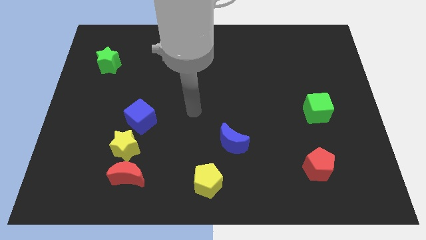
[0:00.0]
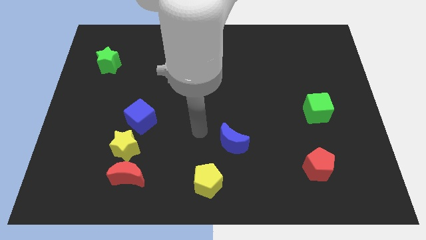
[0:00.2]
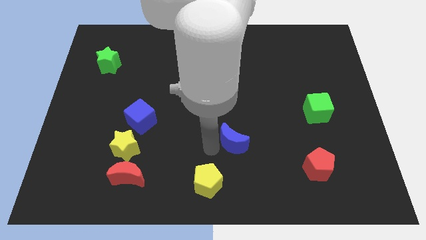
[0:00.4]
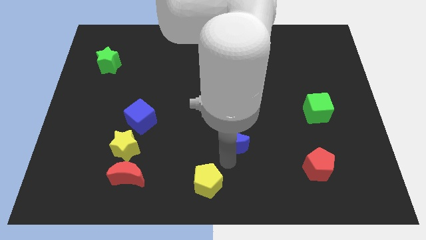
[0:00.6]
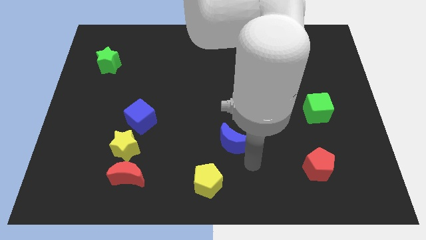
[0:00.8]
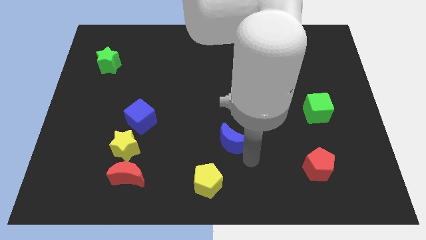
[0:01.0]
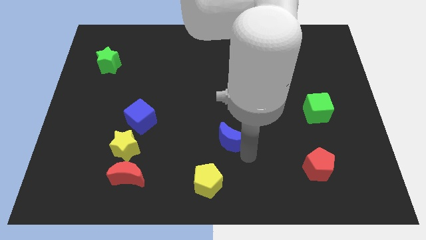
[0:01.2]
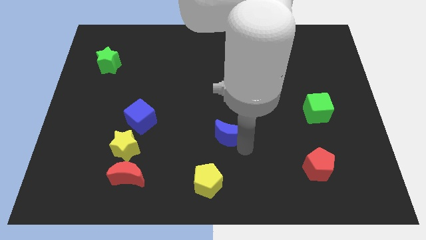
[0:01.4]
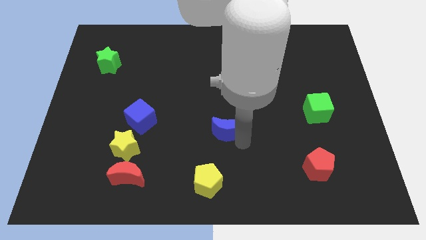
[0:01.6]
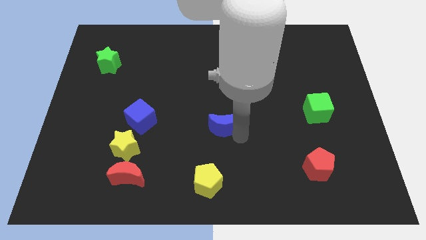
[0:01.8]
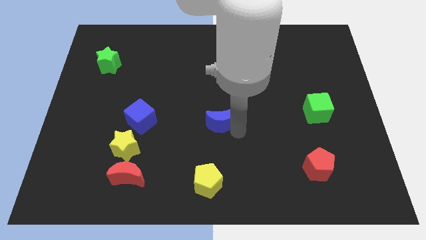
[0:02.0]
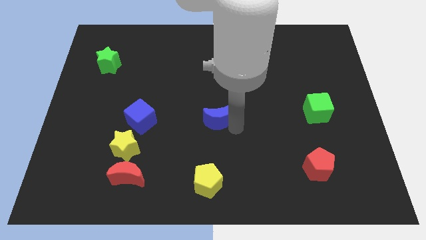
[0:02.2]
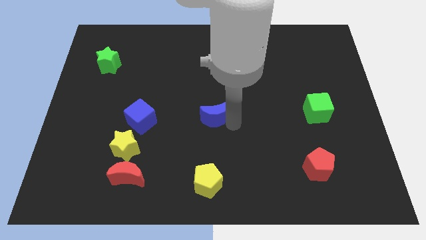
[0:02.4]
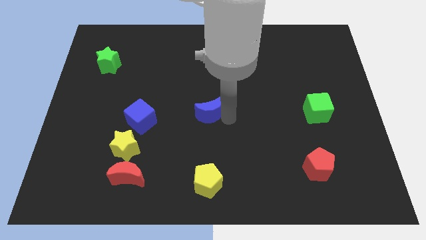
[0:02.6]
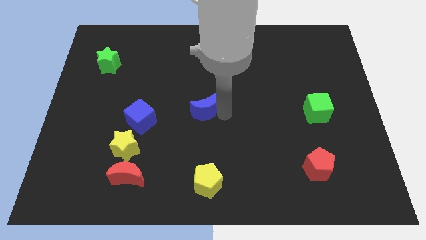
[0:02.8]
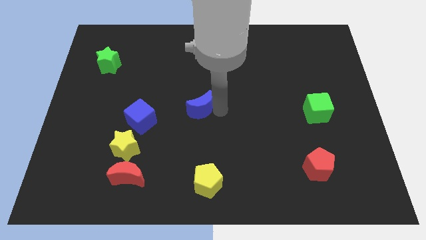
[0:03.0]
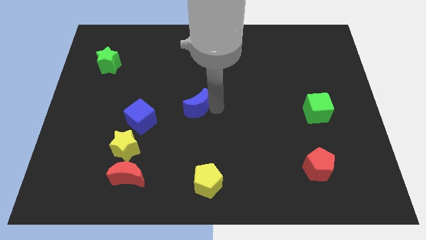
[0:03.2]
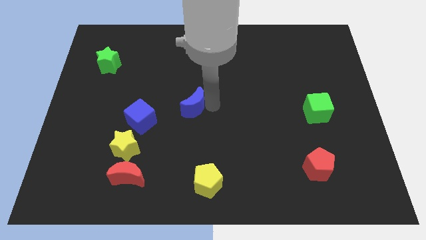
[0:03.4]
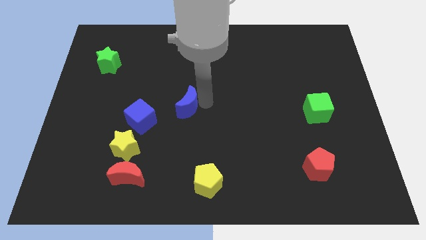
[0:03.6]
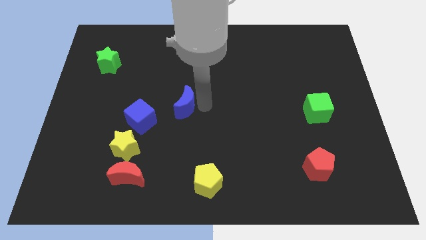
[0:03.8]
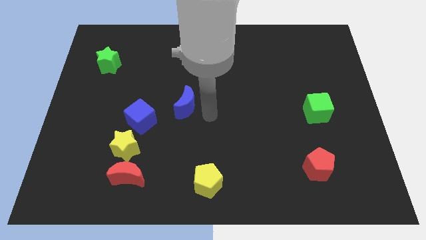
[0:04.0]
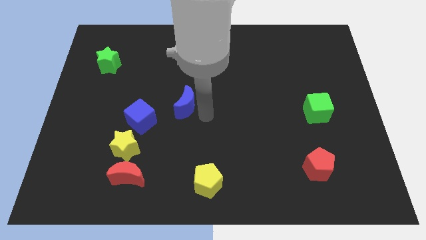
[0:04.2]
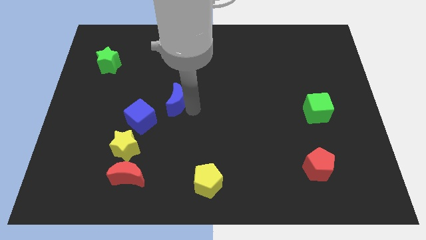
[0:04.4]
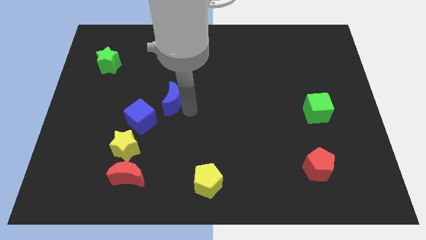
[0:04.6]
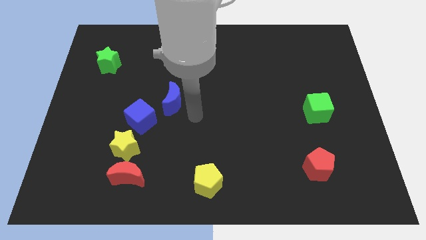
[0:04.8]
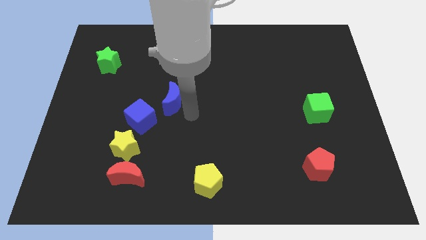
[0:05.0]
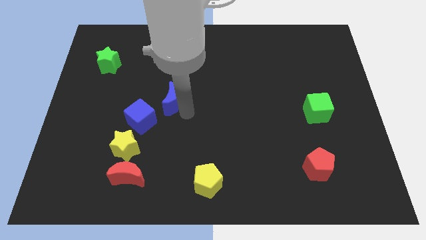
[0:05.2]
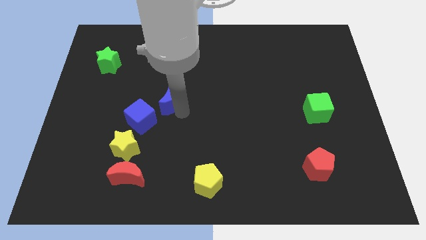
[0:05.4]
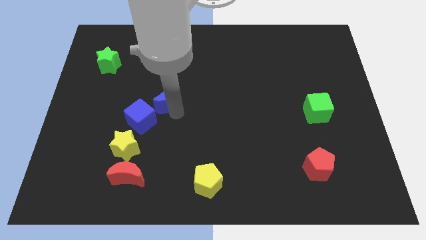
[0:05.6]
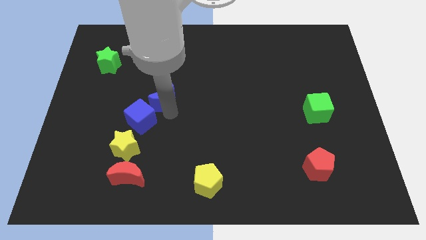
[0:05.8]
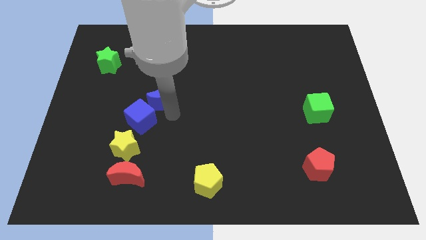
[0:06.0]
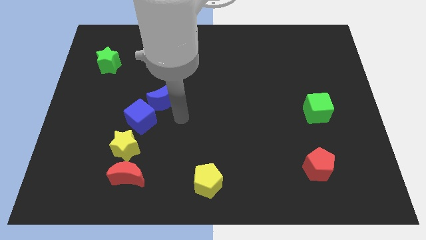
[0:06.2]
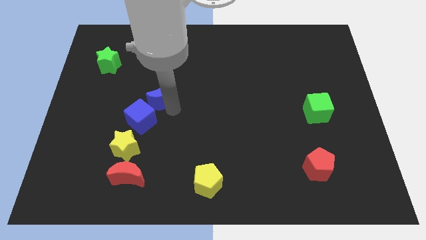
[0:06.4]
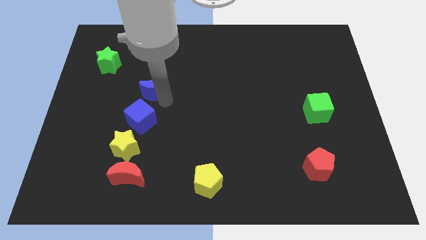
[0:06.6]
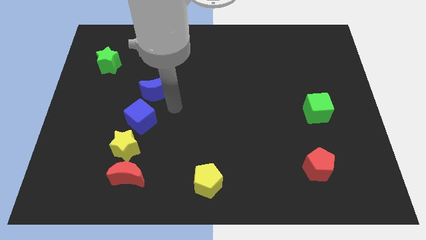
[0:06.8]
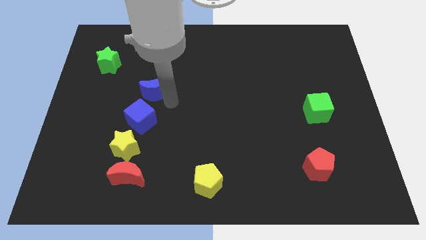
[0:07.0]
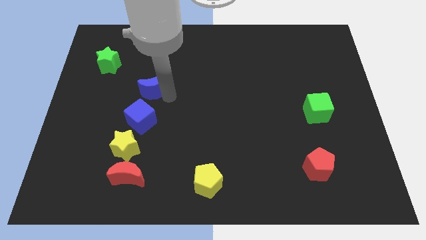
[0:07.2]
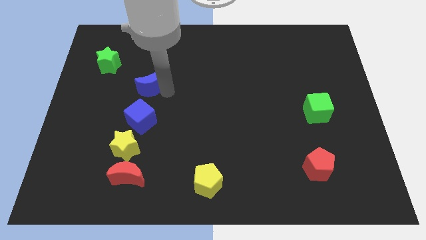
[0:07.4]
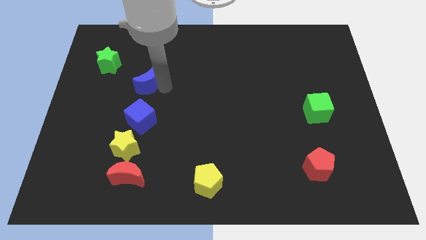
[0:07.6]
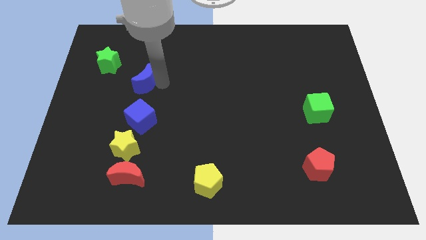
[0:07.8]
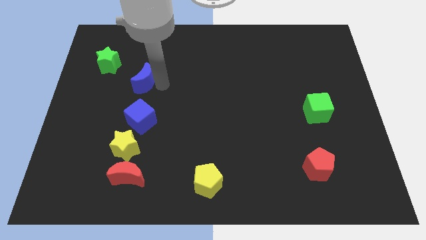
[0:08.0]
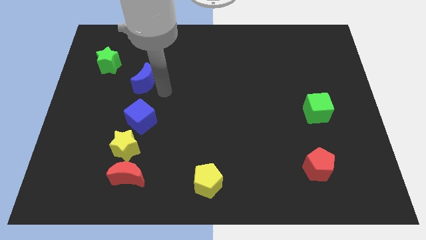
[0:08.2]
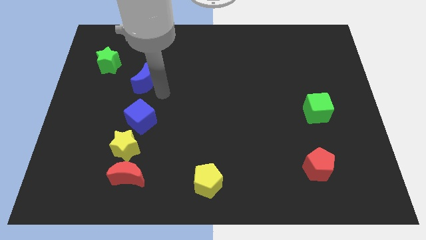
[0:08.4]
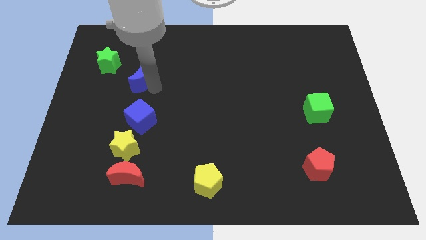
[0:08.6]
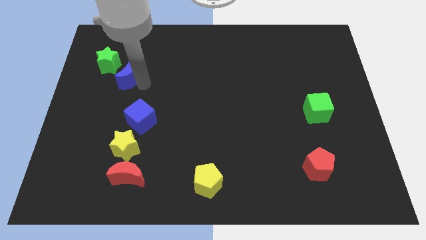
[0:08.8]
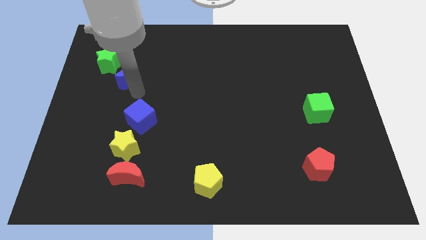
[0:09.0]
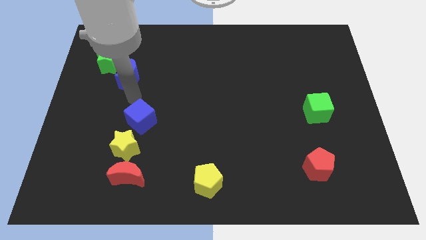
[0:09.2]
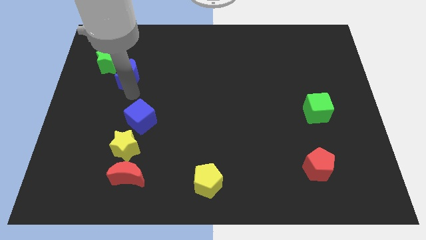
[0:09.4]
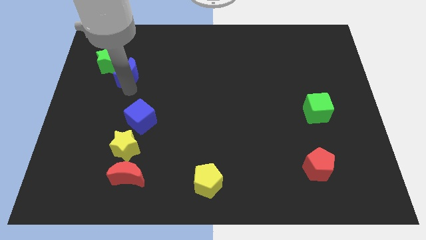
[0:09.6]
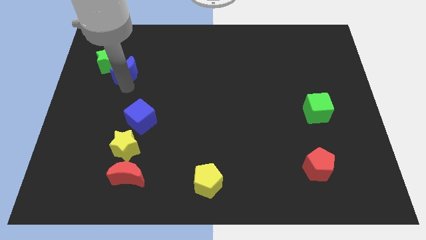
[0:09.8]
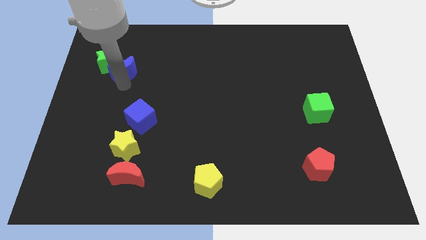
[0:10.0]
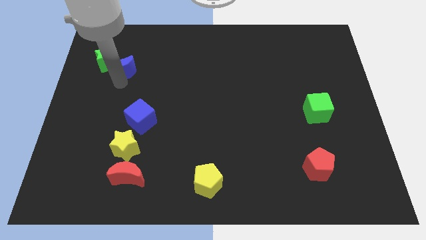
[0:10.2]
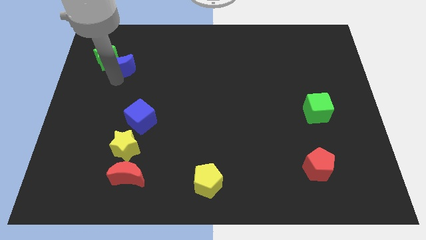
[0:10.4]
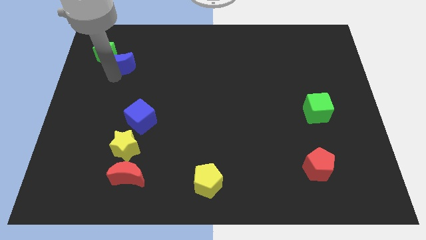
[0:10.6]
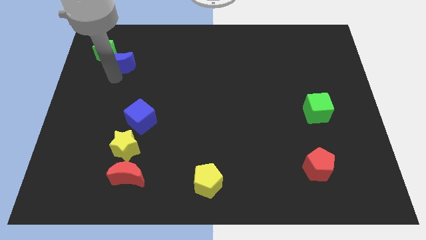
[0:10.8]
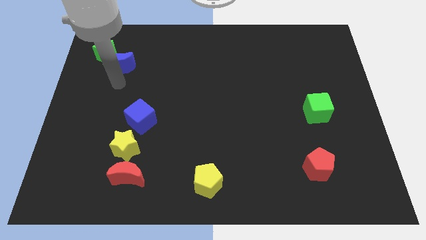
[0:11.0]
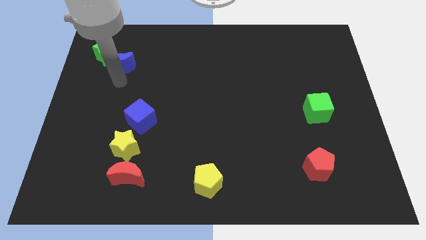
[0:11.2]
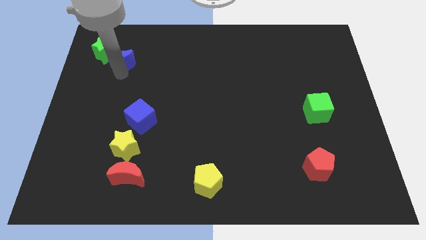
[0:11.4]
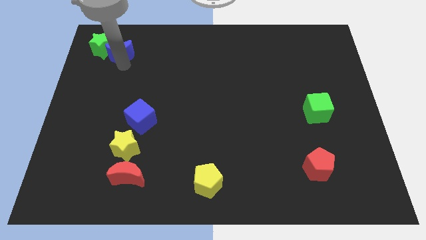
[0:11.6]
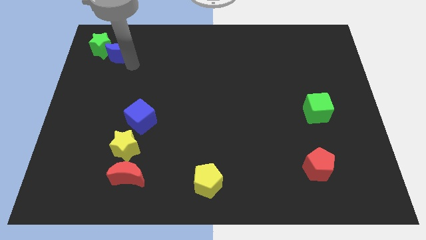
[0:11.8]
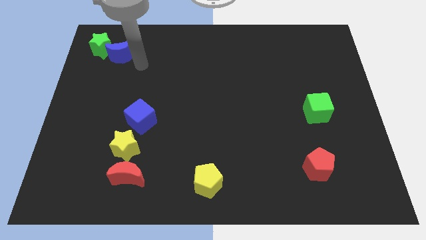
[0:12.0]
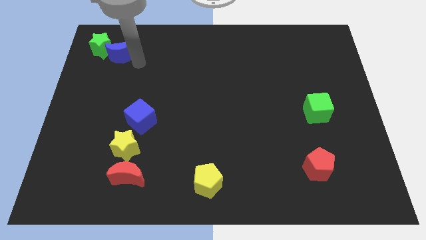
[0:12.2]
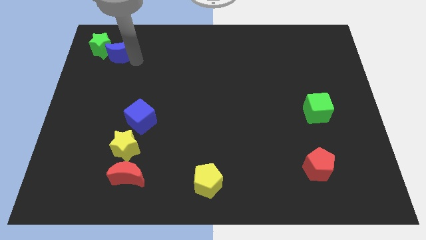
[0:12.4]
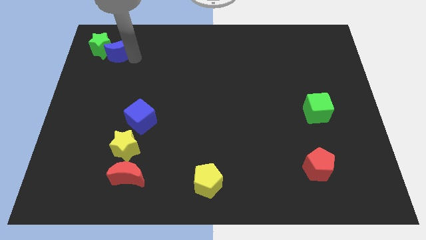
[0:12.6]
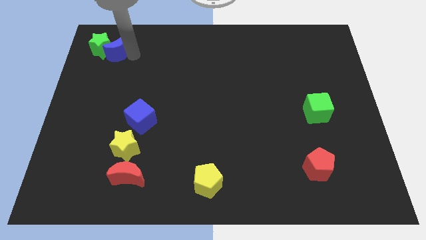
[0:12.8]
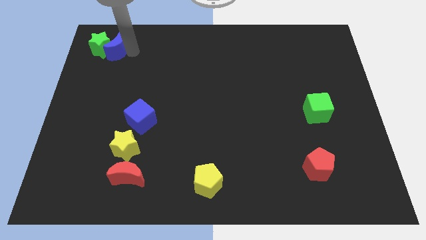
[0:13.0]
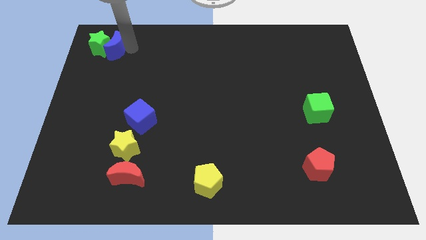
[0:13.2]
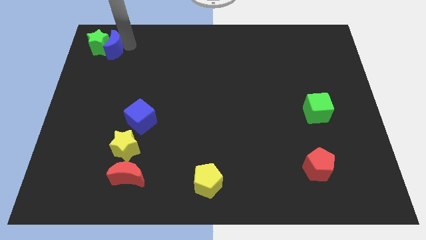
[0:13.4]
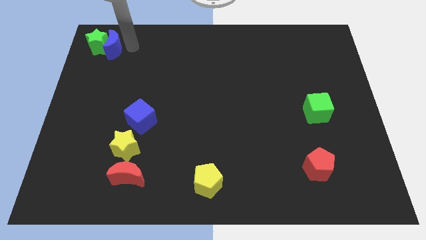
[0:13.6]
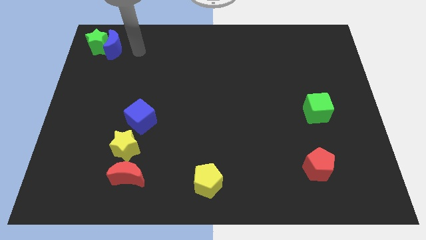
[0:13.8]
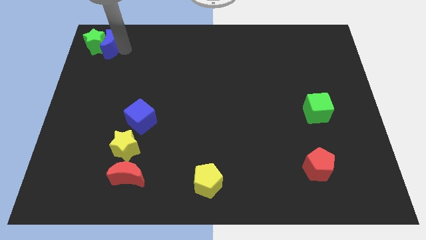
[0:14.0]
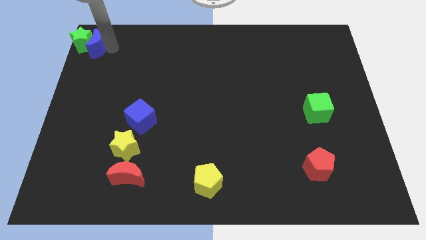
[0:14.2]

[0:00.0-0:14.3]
move the blue moon to the top left of the board
